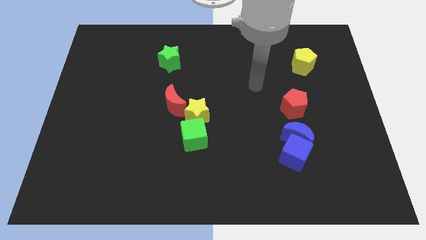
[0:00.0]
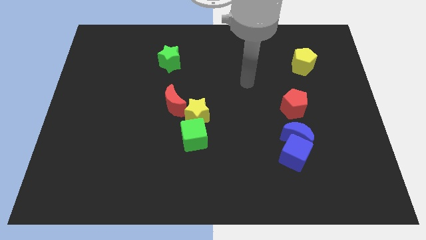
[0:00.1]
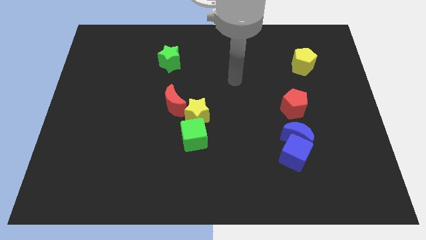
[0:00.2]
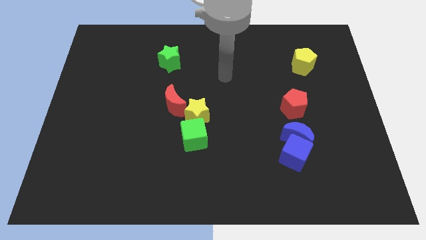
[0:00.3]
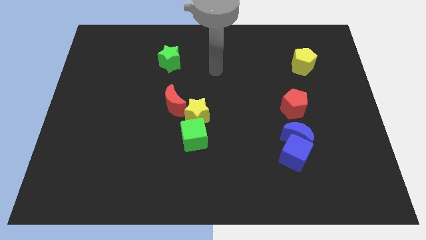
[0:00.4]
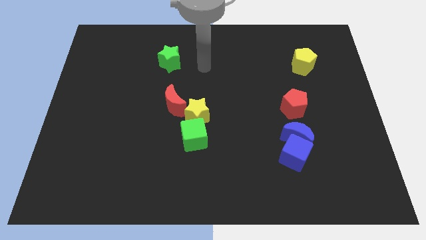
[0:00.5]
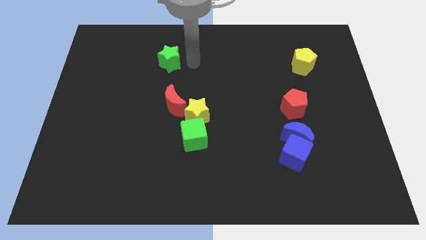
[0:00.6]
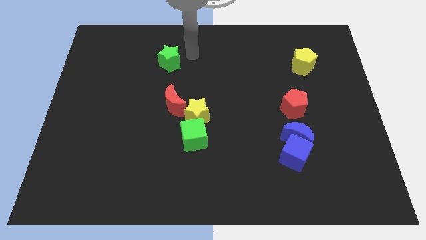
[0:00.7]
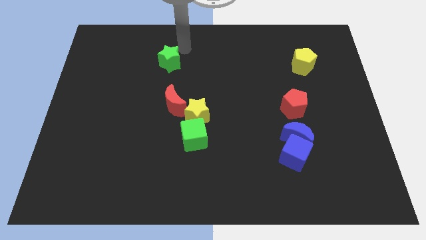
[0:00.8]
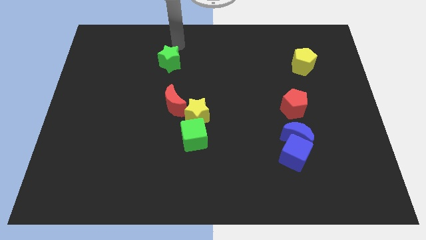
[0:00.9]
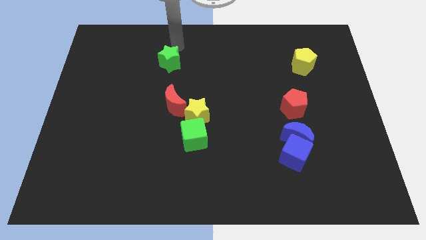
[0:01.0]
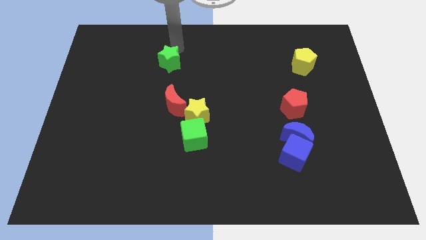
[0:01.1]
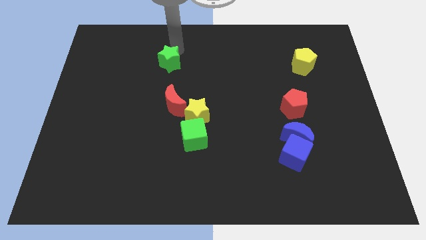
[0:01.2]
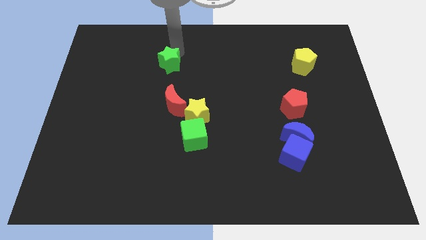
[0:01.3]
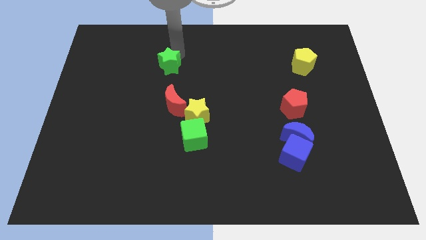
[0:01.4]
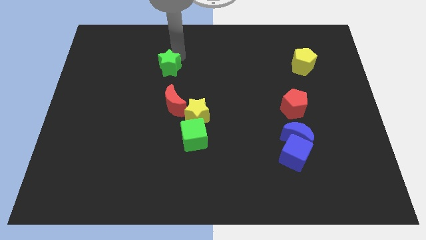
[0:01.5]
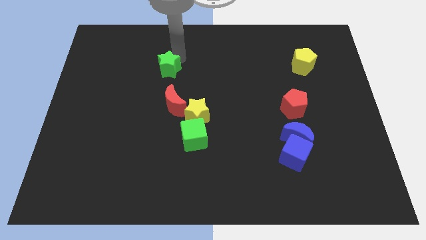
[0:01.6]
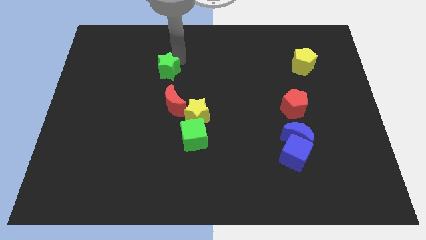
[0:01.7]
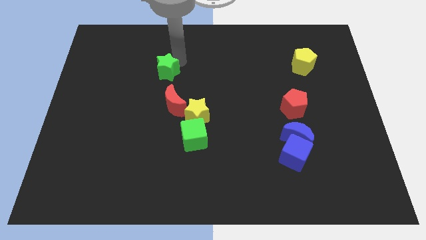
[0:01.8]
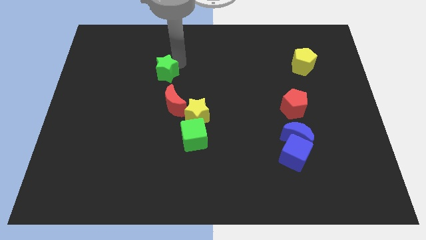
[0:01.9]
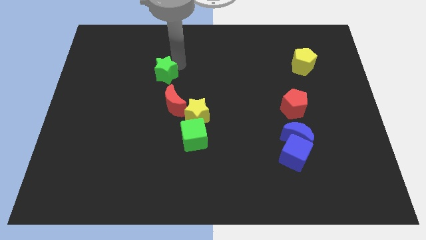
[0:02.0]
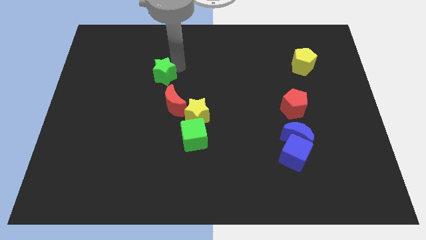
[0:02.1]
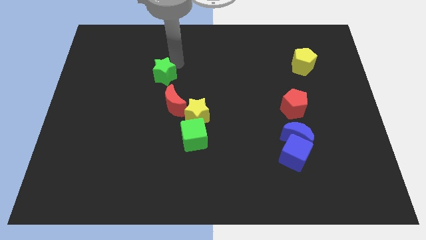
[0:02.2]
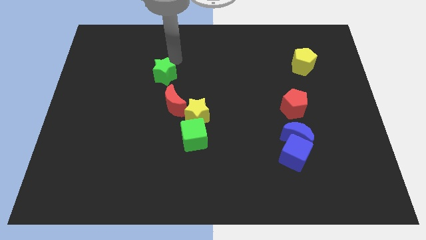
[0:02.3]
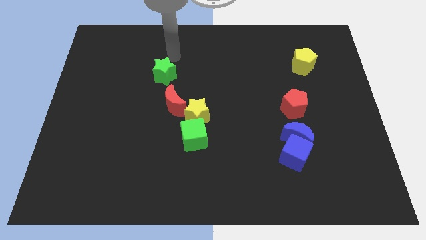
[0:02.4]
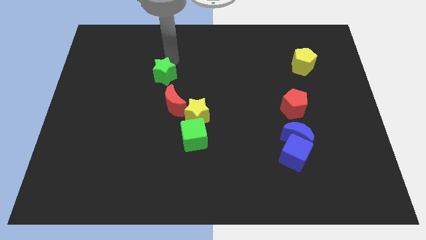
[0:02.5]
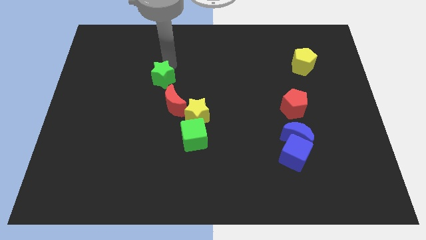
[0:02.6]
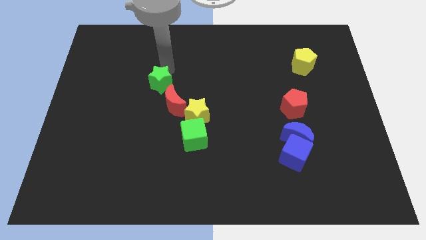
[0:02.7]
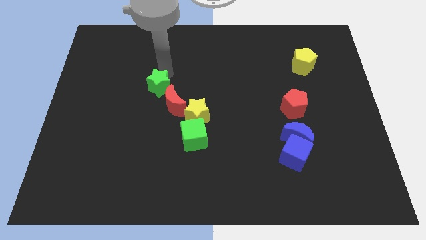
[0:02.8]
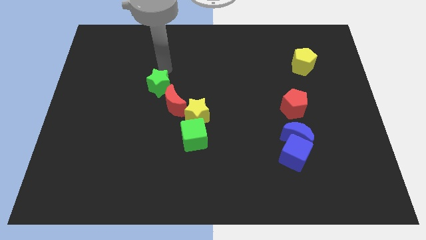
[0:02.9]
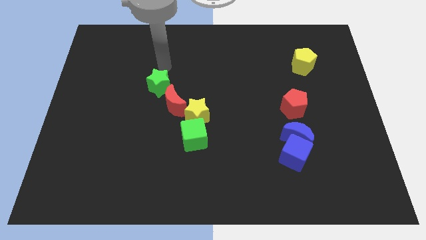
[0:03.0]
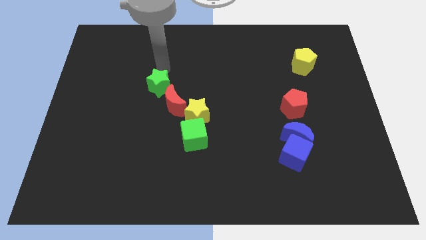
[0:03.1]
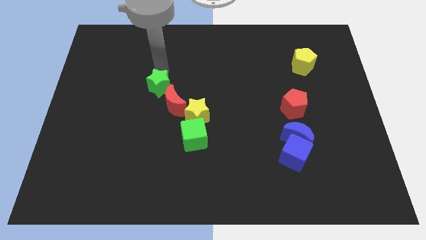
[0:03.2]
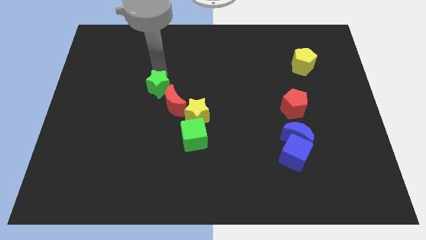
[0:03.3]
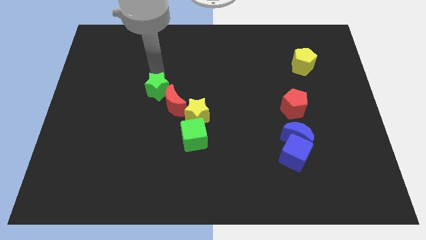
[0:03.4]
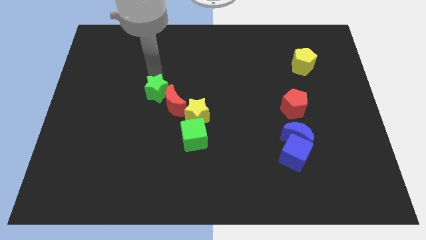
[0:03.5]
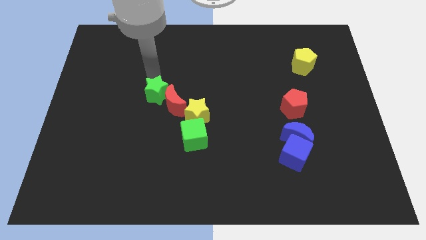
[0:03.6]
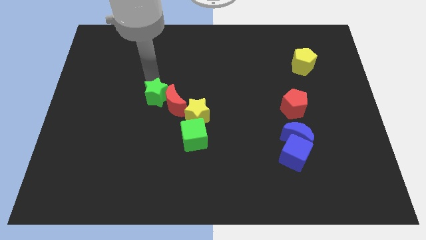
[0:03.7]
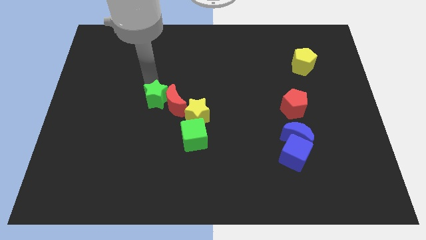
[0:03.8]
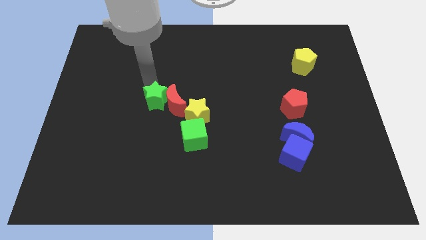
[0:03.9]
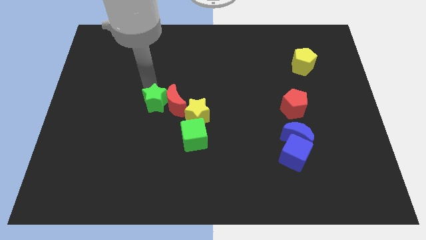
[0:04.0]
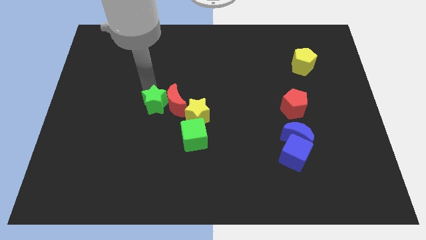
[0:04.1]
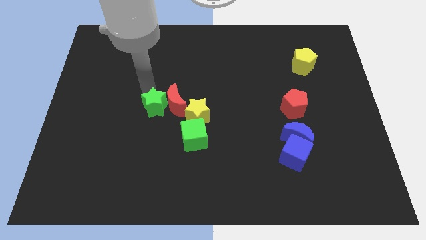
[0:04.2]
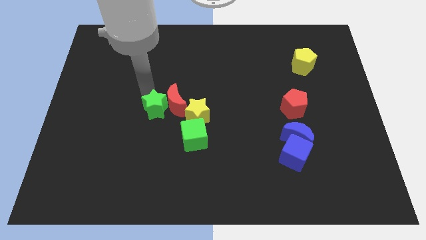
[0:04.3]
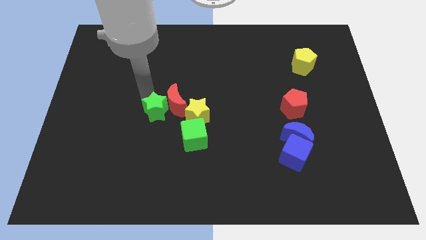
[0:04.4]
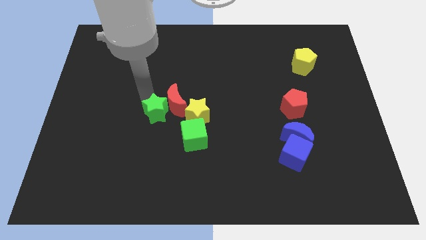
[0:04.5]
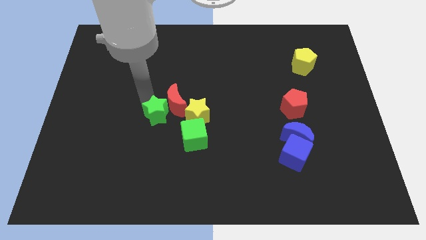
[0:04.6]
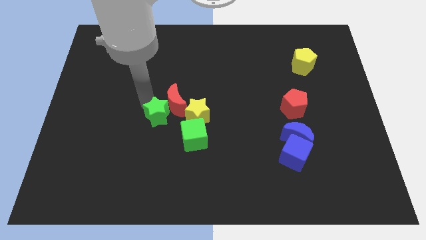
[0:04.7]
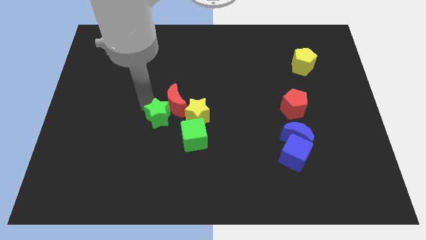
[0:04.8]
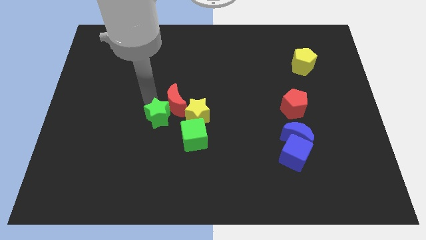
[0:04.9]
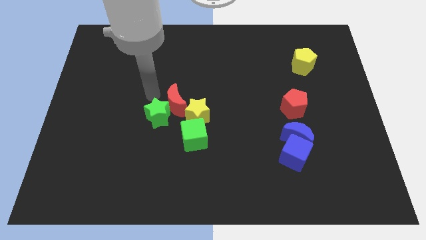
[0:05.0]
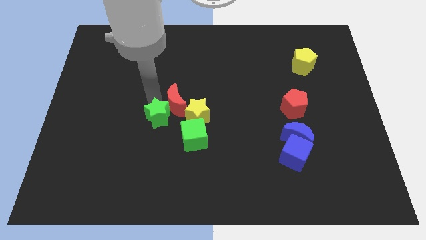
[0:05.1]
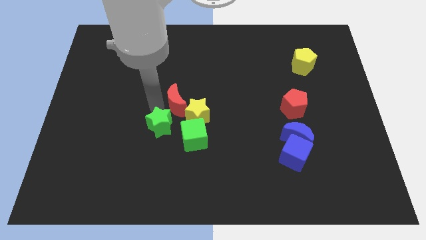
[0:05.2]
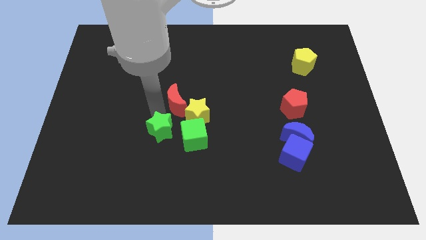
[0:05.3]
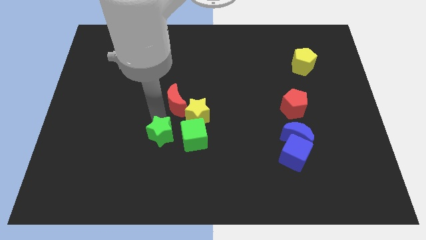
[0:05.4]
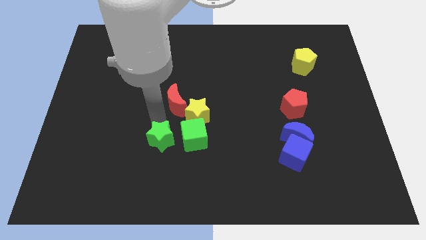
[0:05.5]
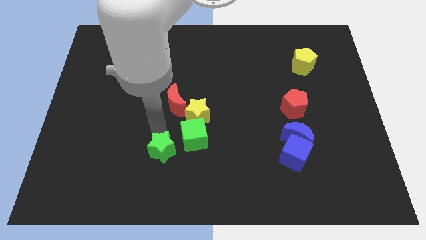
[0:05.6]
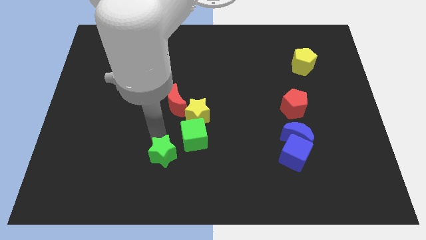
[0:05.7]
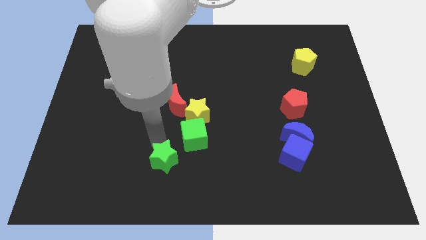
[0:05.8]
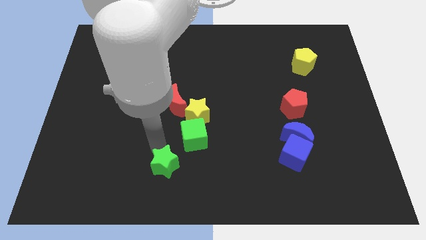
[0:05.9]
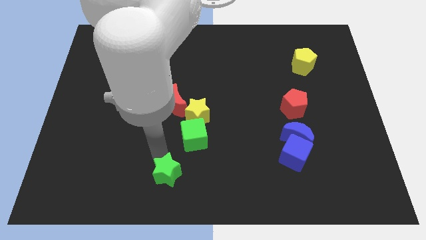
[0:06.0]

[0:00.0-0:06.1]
move the green star to the bottom side
